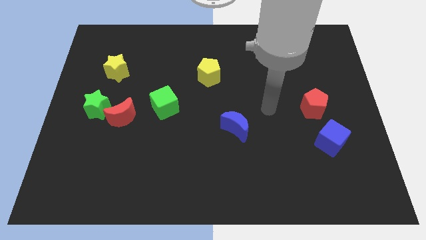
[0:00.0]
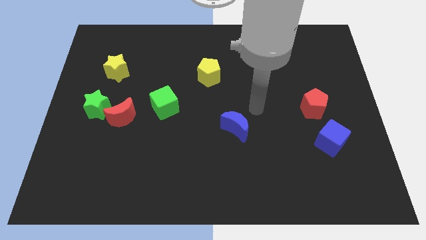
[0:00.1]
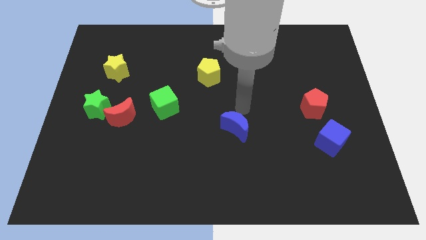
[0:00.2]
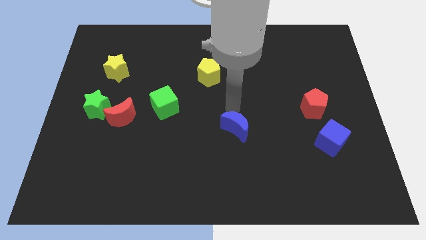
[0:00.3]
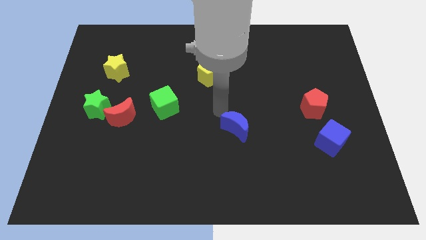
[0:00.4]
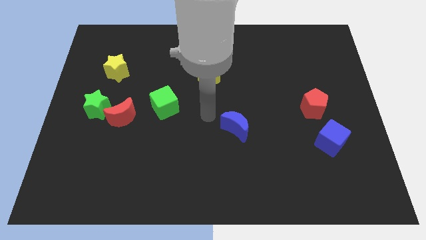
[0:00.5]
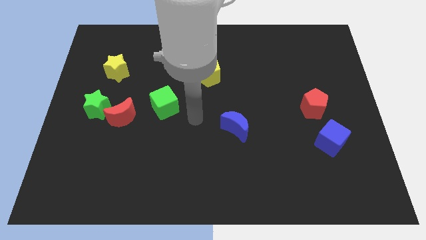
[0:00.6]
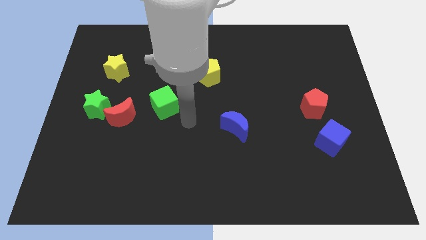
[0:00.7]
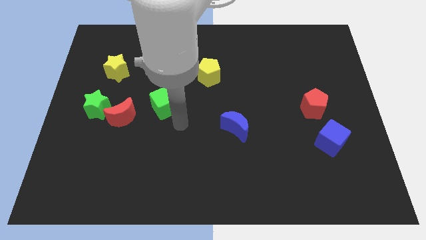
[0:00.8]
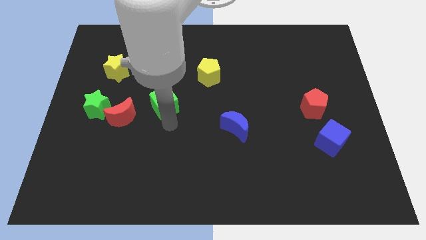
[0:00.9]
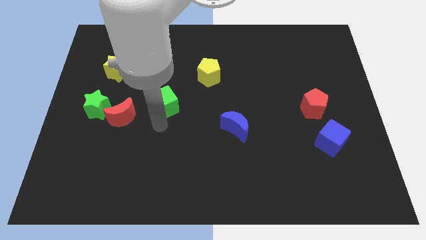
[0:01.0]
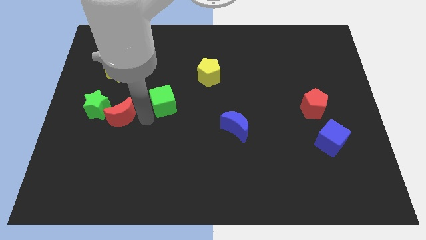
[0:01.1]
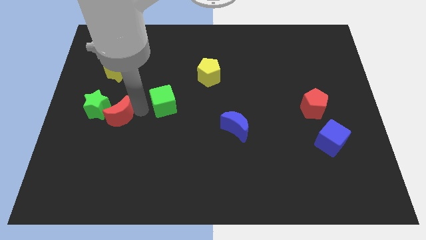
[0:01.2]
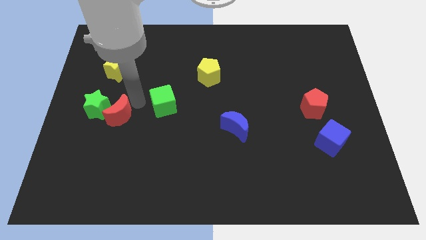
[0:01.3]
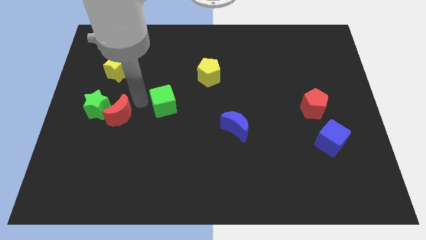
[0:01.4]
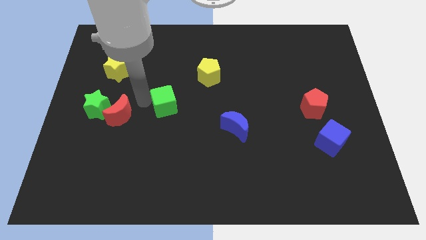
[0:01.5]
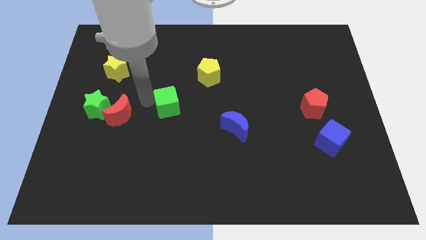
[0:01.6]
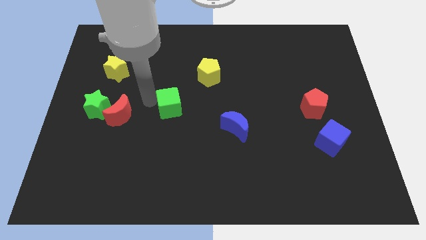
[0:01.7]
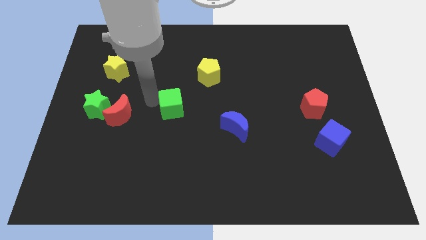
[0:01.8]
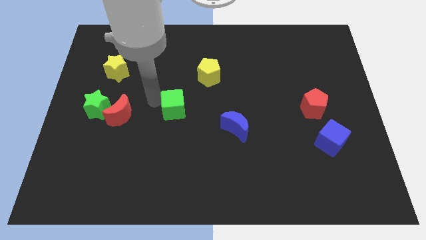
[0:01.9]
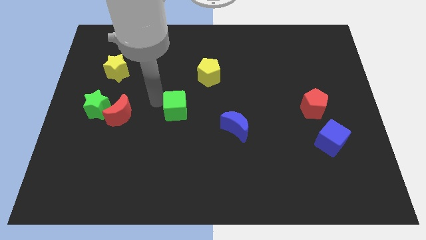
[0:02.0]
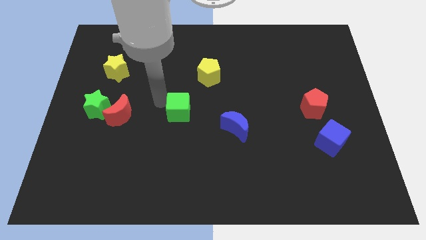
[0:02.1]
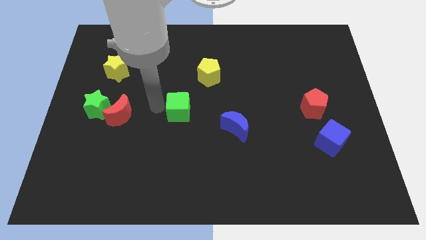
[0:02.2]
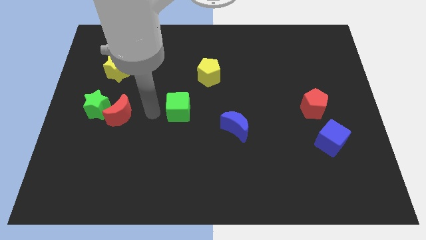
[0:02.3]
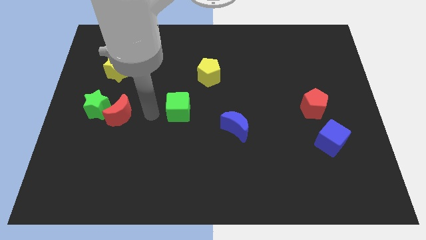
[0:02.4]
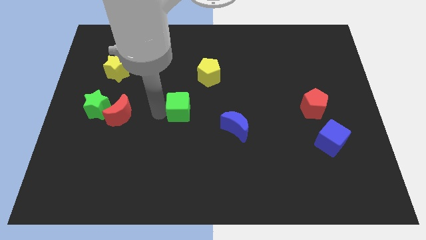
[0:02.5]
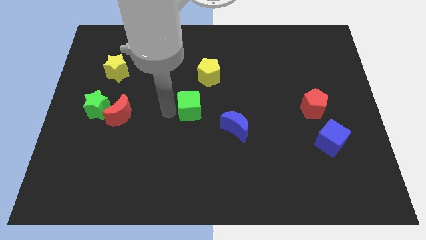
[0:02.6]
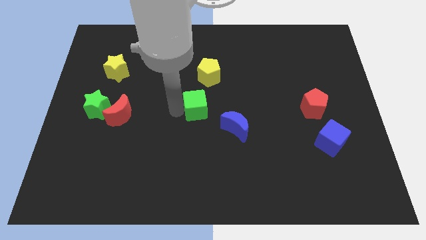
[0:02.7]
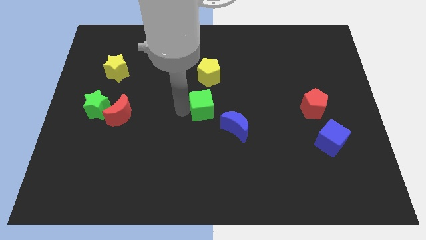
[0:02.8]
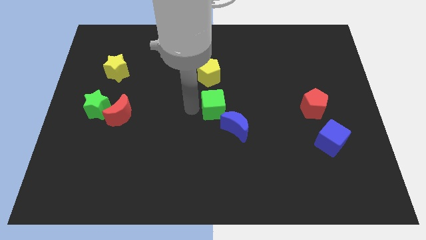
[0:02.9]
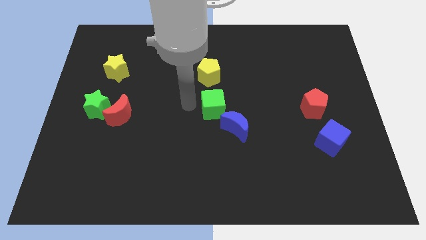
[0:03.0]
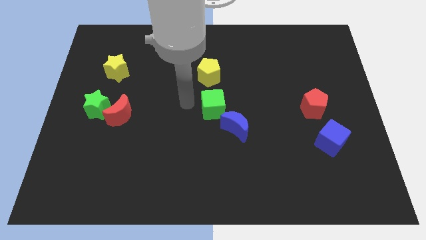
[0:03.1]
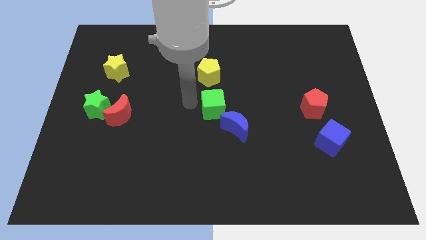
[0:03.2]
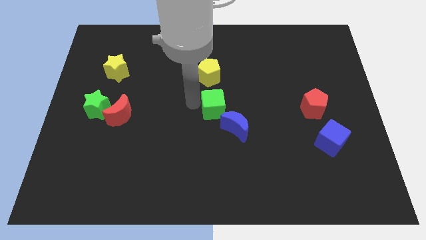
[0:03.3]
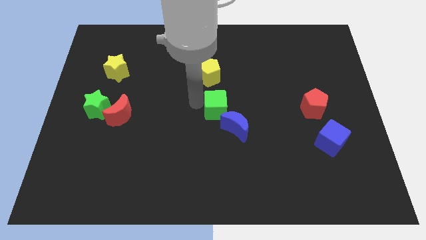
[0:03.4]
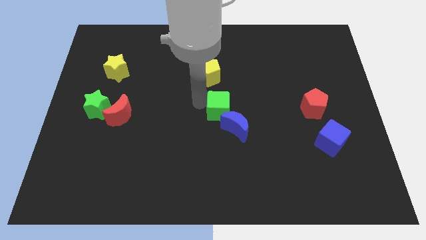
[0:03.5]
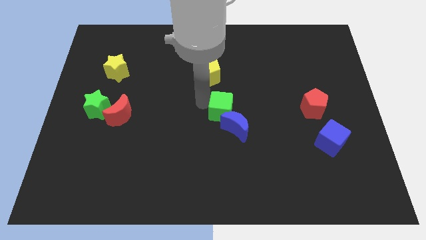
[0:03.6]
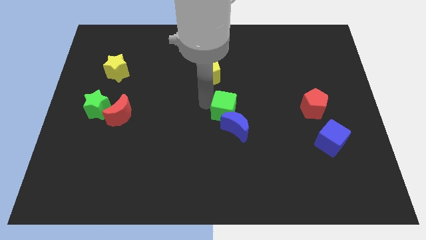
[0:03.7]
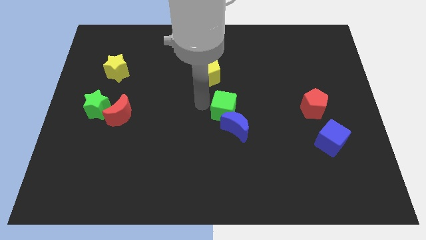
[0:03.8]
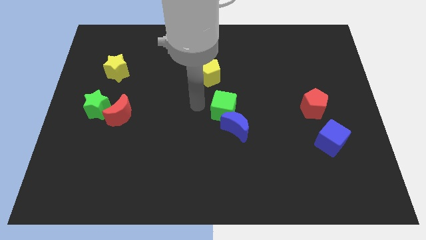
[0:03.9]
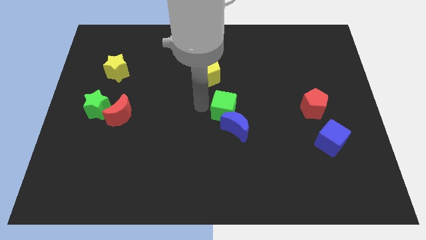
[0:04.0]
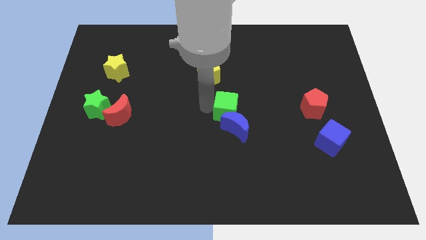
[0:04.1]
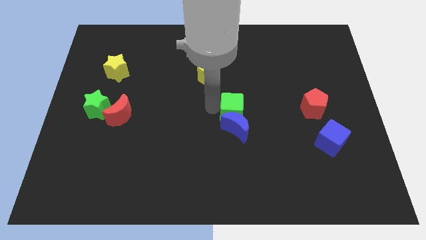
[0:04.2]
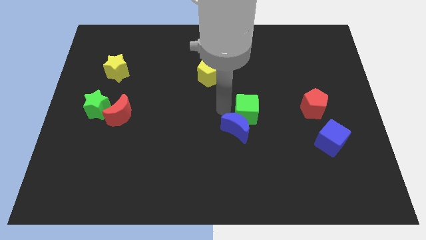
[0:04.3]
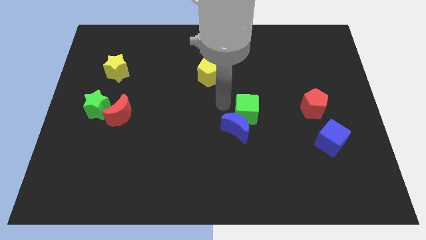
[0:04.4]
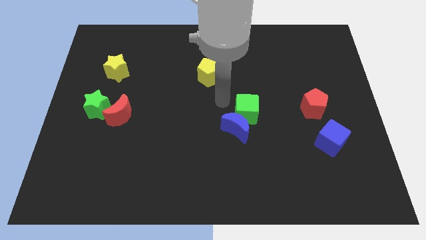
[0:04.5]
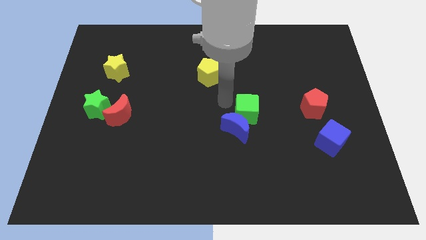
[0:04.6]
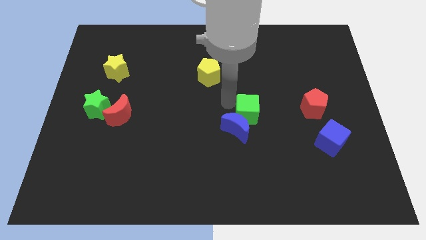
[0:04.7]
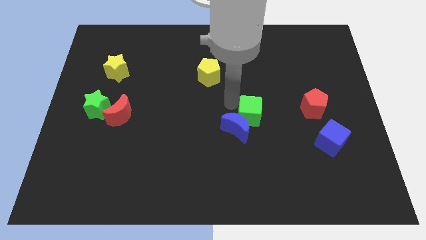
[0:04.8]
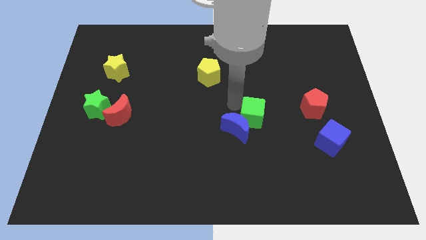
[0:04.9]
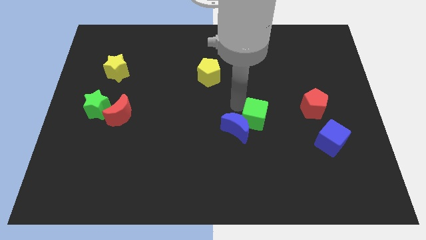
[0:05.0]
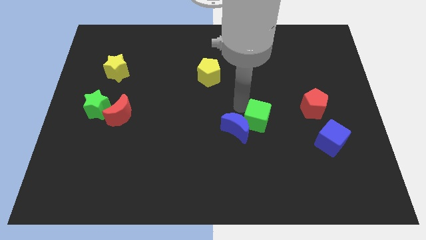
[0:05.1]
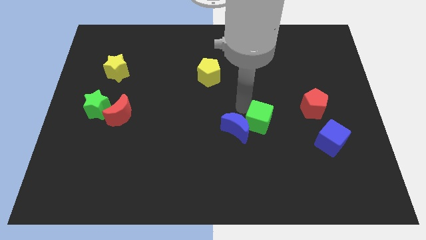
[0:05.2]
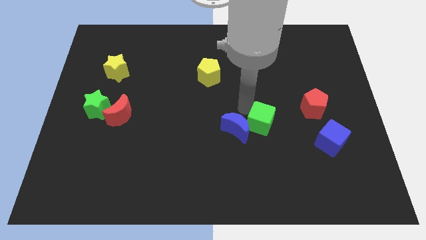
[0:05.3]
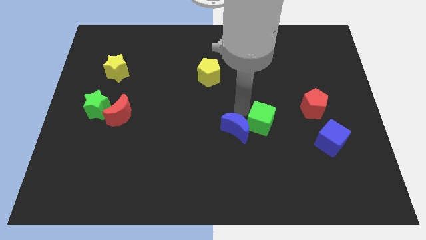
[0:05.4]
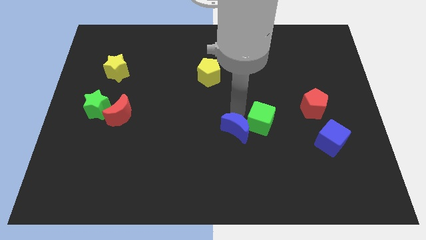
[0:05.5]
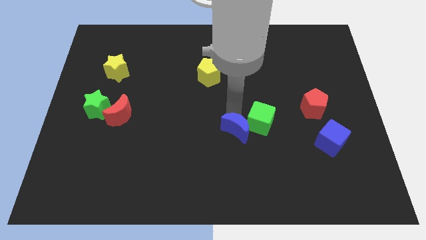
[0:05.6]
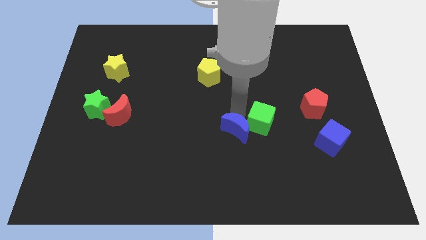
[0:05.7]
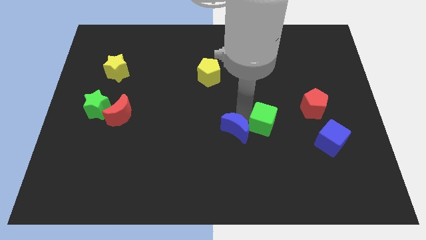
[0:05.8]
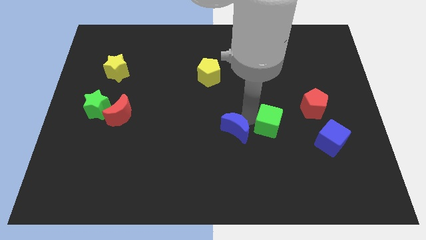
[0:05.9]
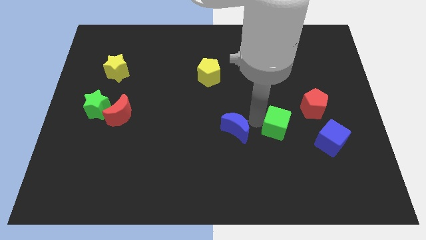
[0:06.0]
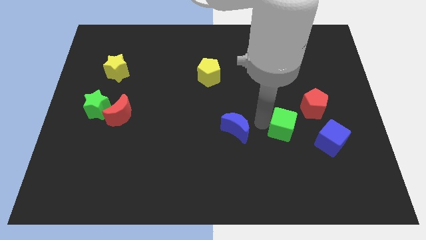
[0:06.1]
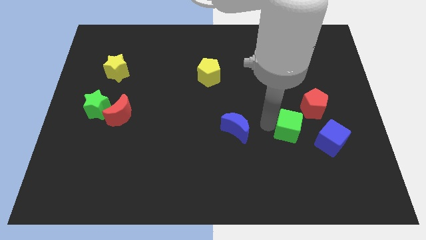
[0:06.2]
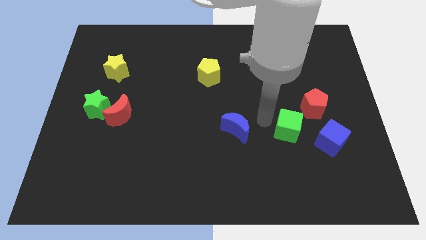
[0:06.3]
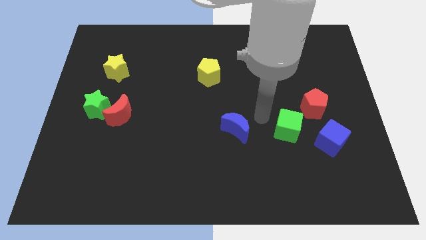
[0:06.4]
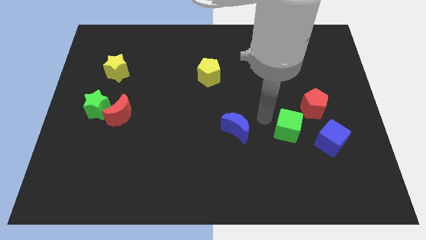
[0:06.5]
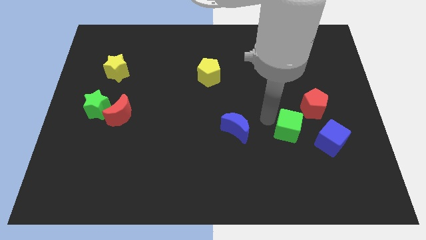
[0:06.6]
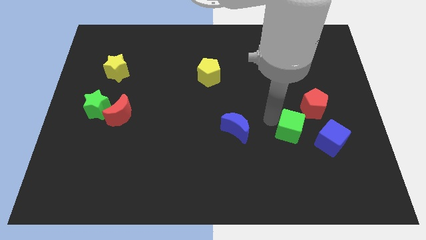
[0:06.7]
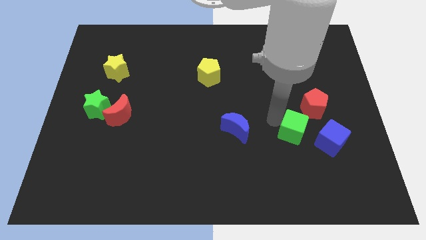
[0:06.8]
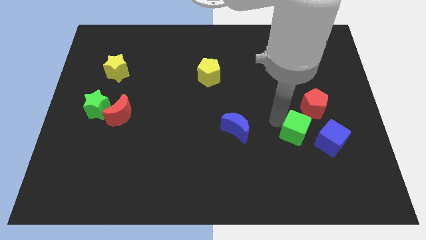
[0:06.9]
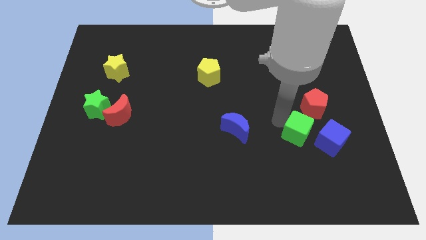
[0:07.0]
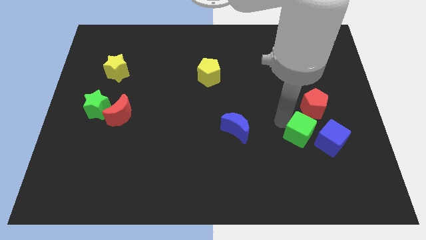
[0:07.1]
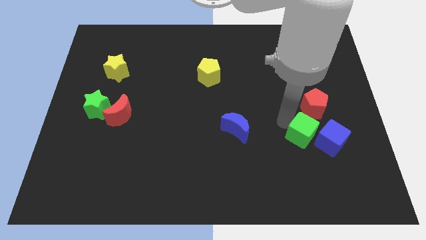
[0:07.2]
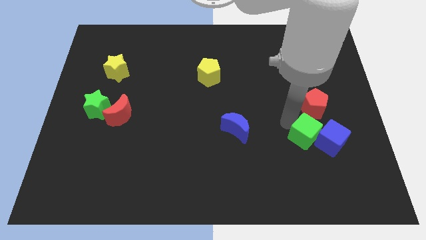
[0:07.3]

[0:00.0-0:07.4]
put the green cube to the blue cube
